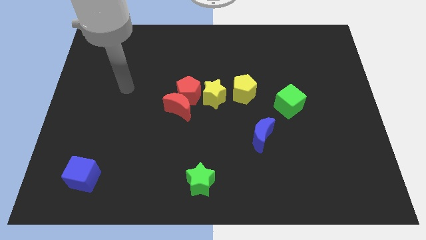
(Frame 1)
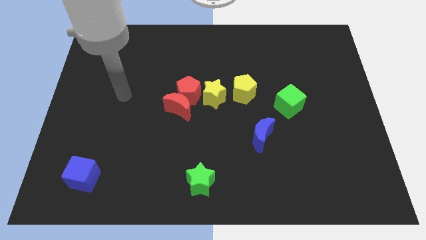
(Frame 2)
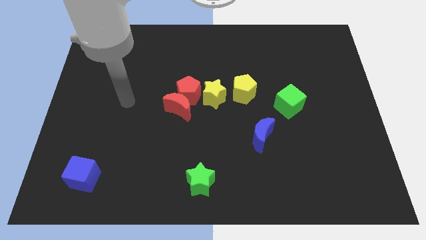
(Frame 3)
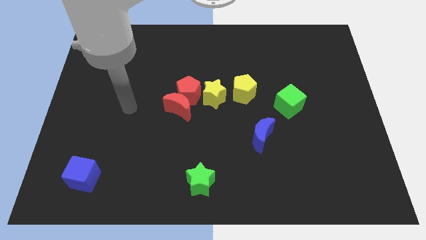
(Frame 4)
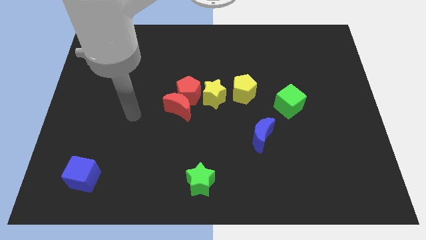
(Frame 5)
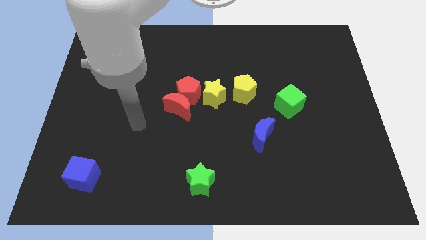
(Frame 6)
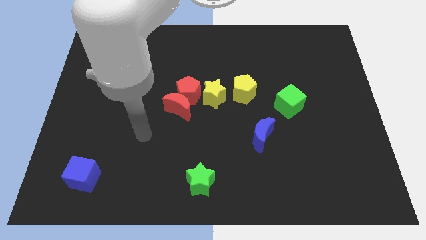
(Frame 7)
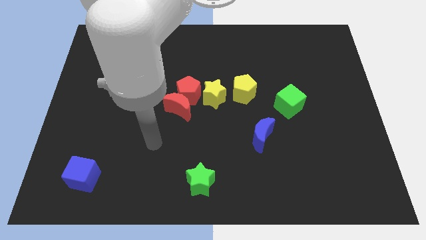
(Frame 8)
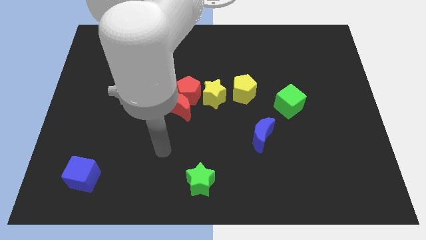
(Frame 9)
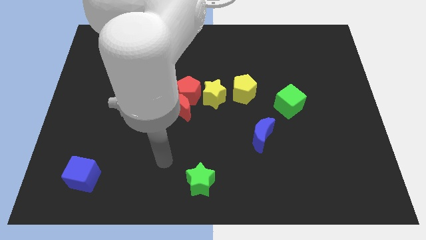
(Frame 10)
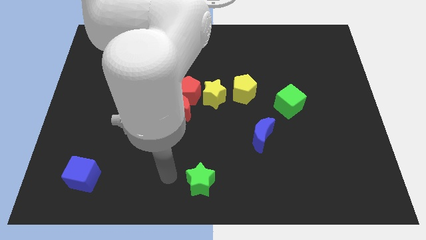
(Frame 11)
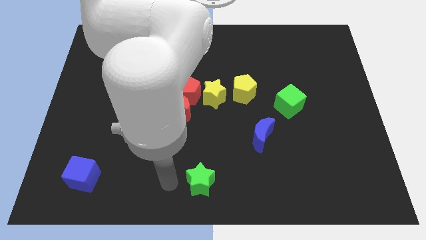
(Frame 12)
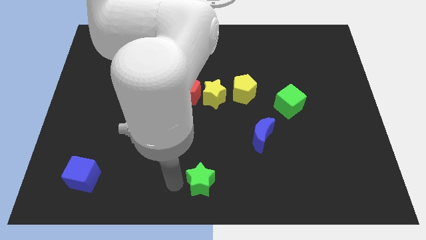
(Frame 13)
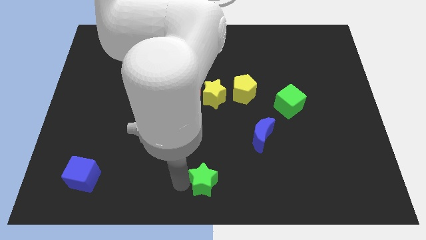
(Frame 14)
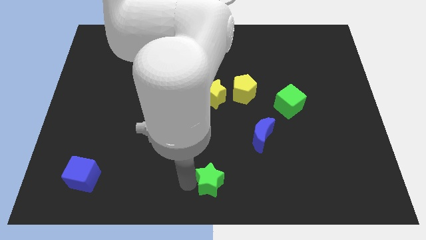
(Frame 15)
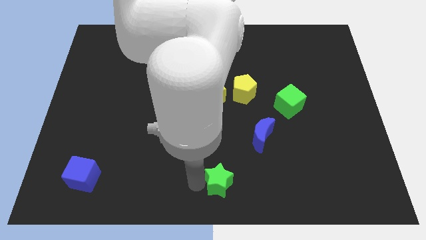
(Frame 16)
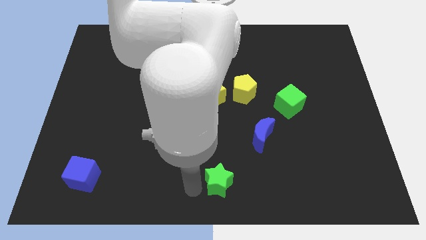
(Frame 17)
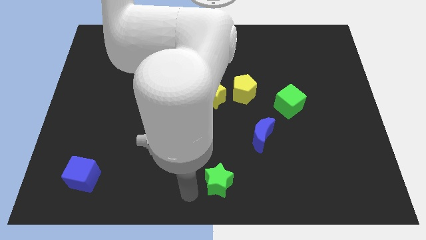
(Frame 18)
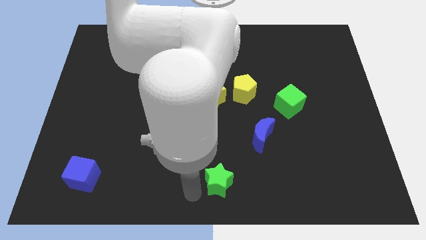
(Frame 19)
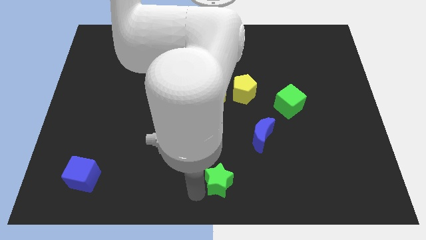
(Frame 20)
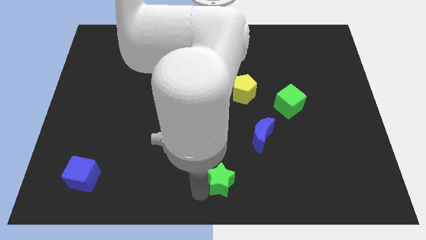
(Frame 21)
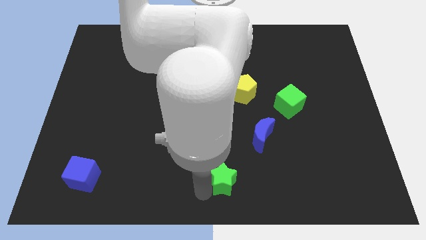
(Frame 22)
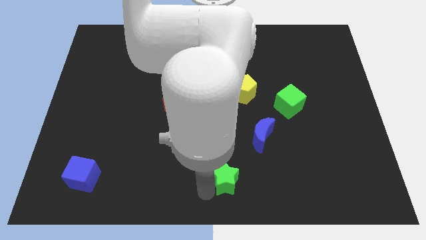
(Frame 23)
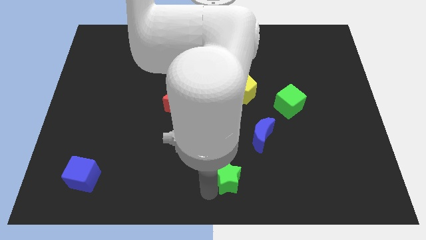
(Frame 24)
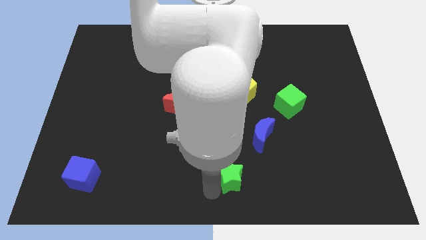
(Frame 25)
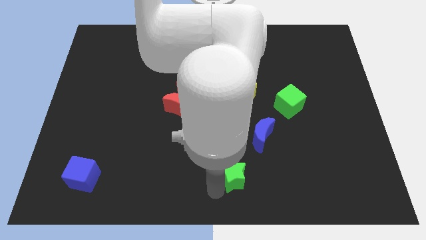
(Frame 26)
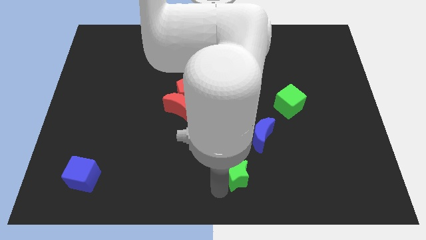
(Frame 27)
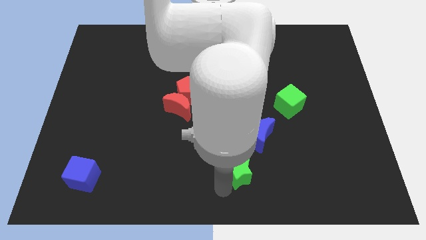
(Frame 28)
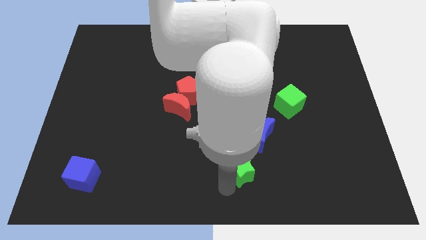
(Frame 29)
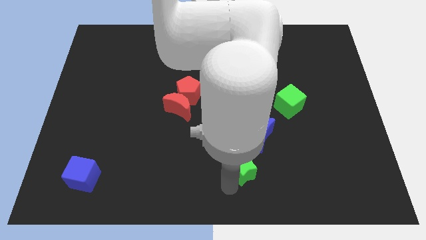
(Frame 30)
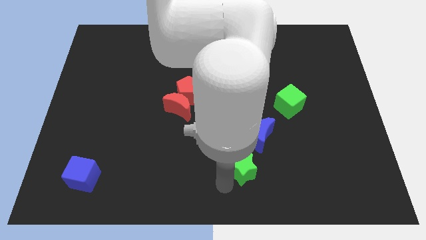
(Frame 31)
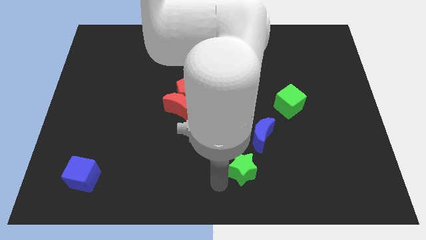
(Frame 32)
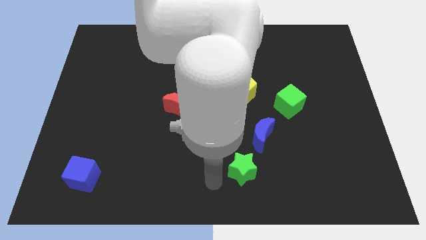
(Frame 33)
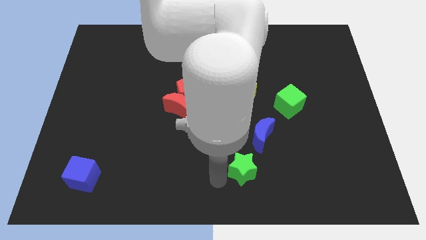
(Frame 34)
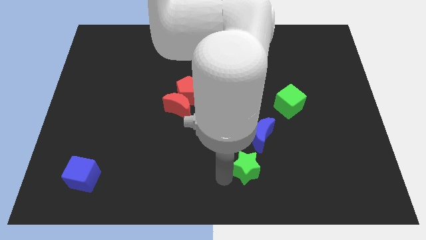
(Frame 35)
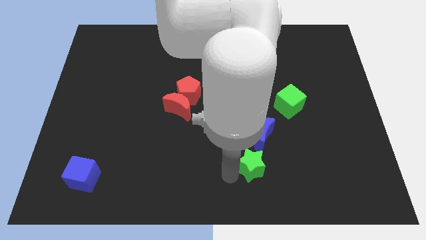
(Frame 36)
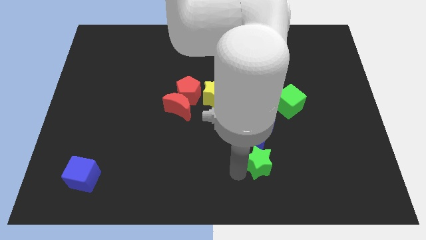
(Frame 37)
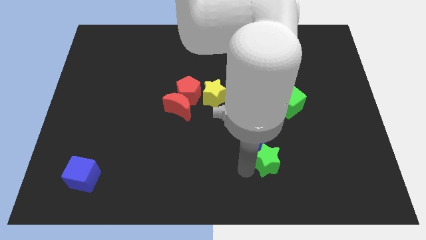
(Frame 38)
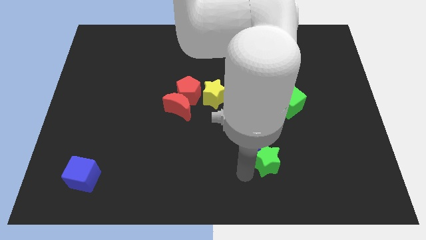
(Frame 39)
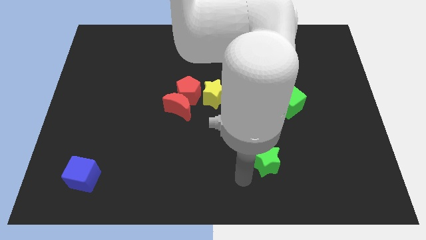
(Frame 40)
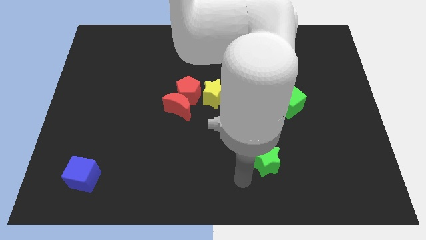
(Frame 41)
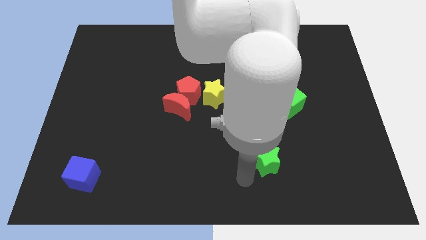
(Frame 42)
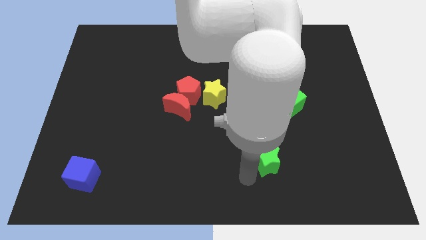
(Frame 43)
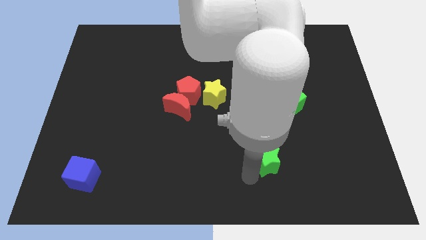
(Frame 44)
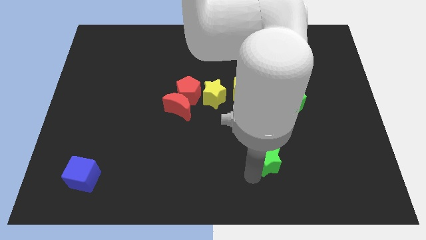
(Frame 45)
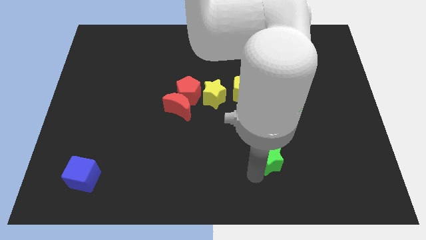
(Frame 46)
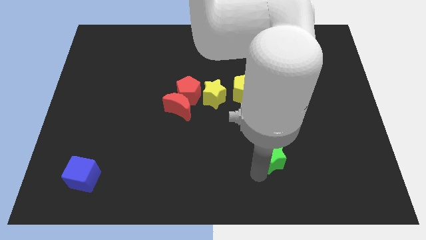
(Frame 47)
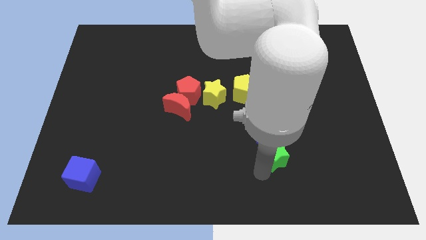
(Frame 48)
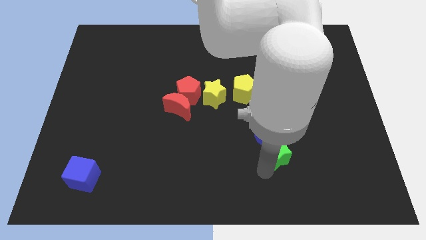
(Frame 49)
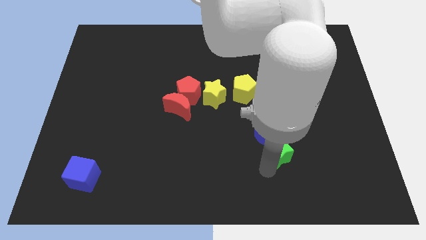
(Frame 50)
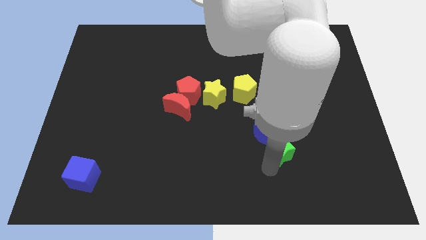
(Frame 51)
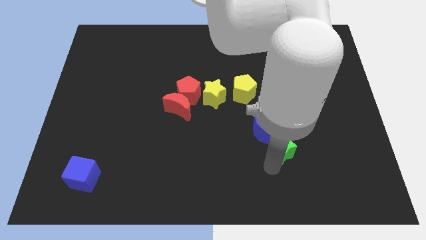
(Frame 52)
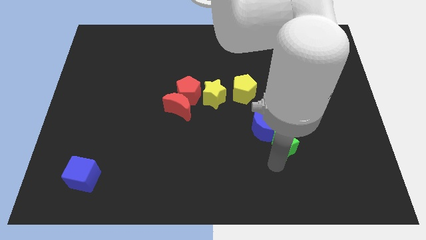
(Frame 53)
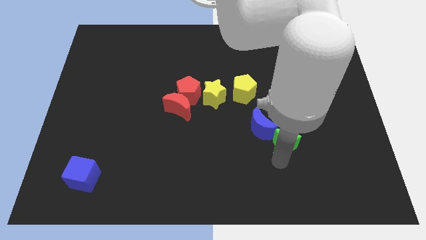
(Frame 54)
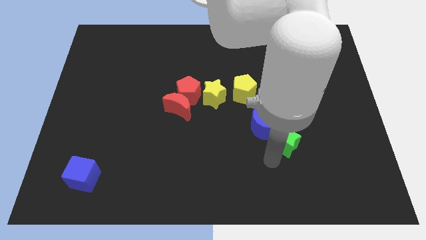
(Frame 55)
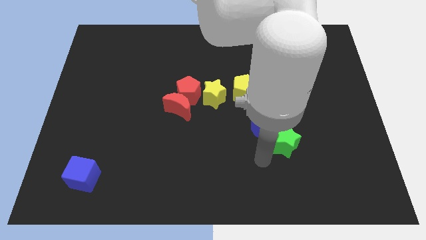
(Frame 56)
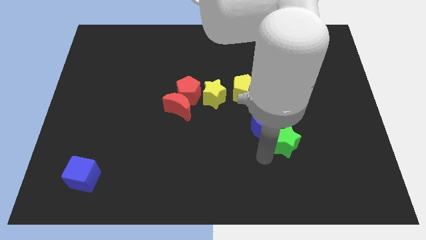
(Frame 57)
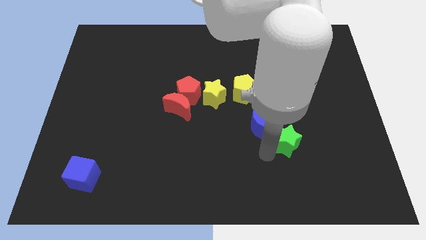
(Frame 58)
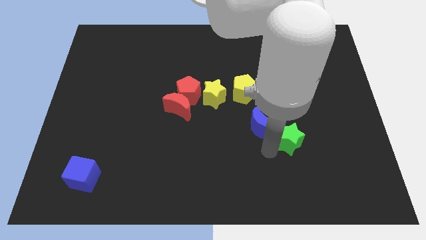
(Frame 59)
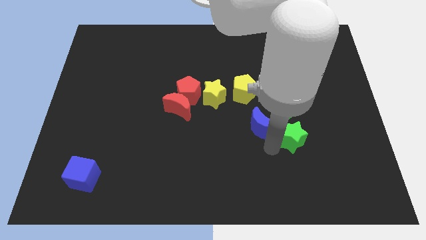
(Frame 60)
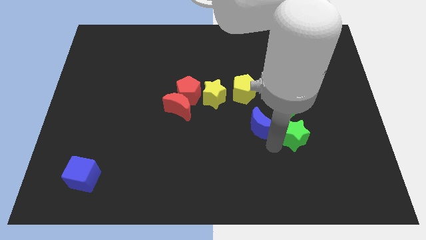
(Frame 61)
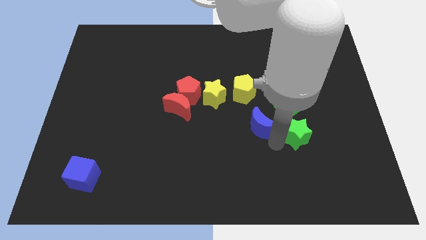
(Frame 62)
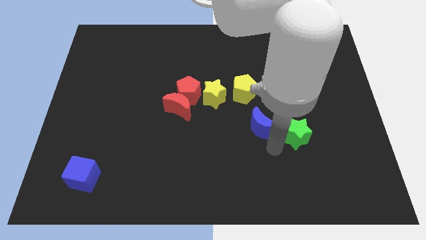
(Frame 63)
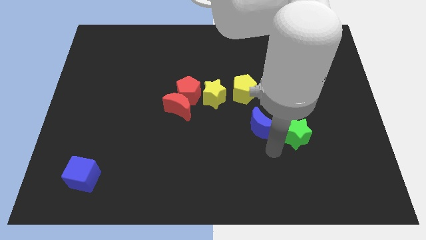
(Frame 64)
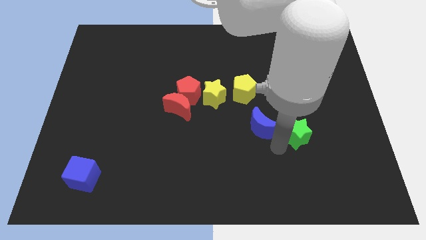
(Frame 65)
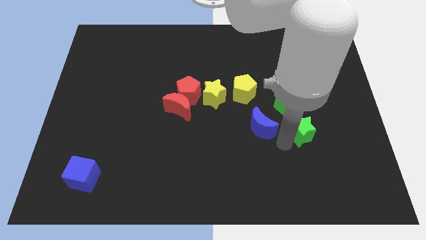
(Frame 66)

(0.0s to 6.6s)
put the green star to the bottom right side of the green cube
